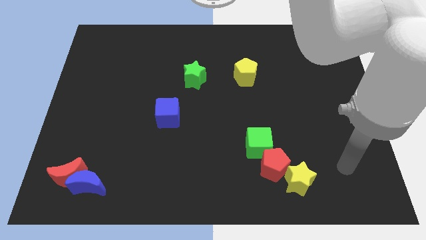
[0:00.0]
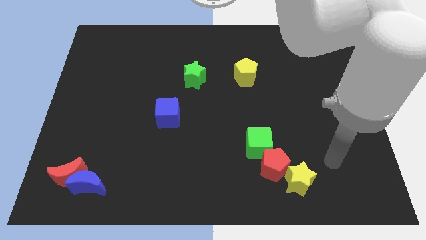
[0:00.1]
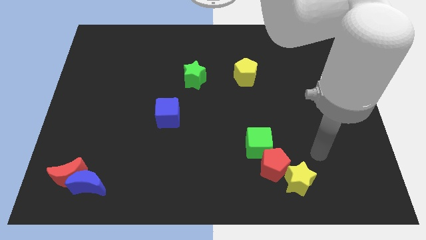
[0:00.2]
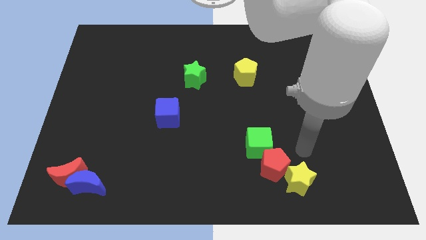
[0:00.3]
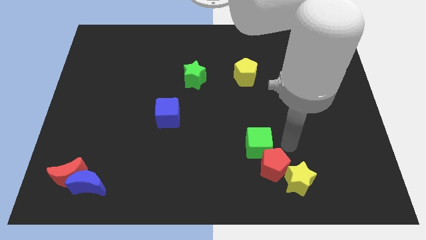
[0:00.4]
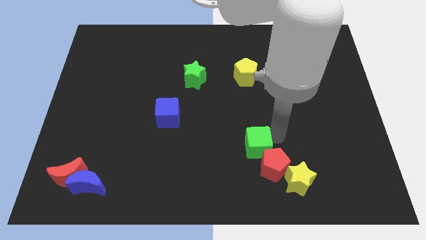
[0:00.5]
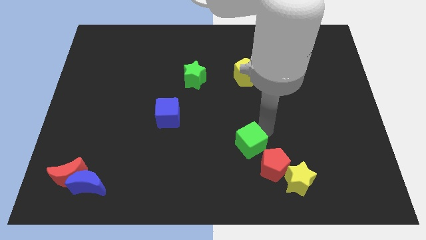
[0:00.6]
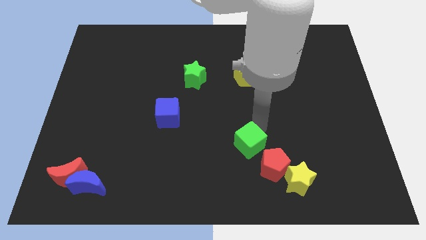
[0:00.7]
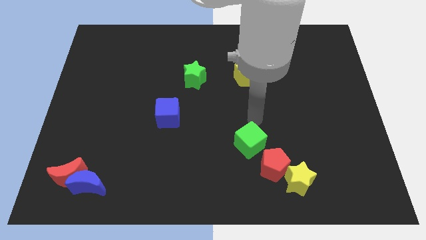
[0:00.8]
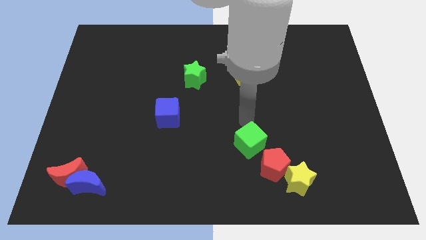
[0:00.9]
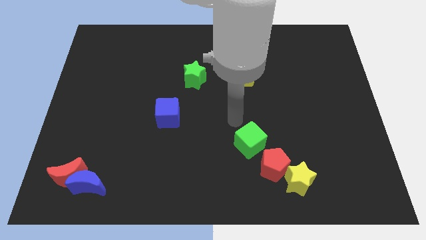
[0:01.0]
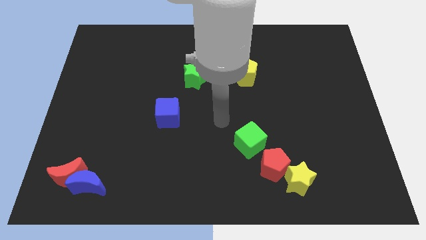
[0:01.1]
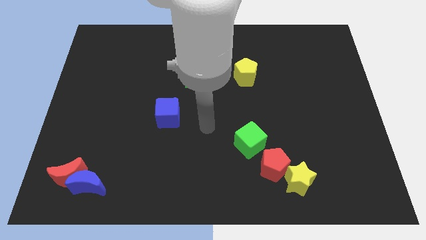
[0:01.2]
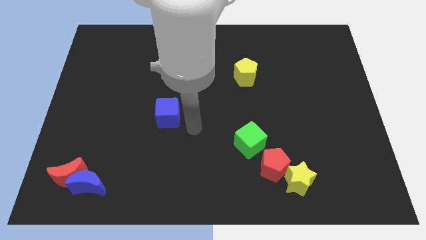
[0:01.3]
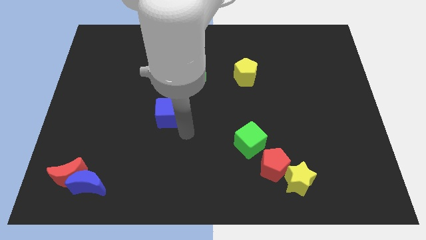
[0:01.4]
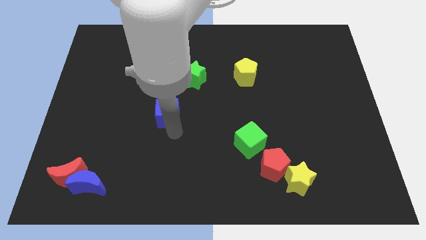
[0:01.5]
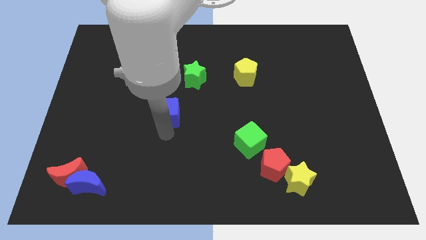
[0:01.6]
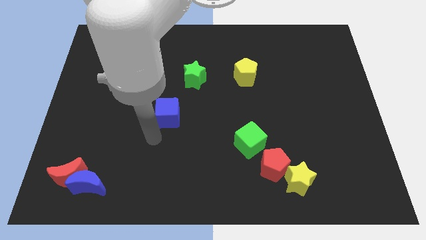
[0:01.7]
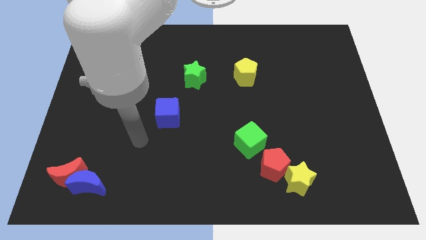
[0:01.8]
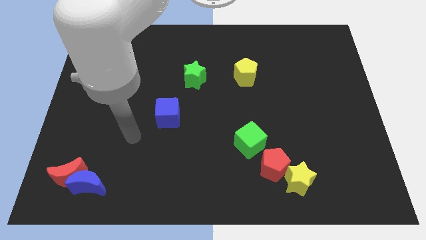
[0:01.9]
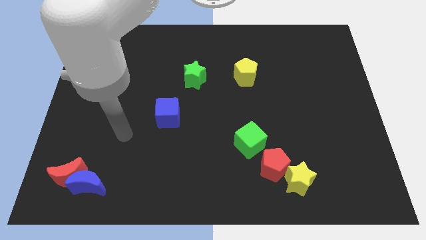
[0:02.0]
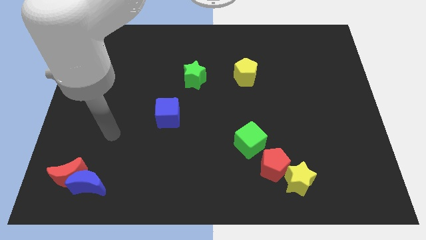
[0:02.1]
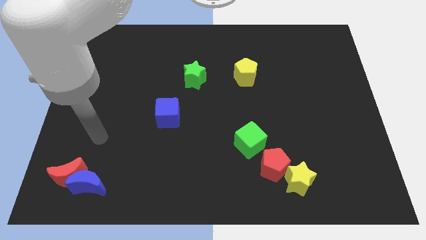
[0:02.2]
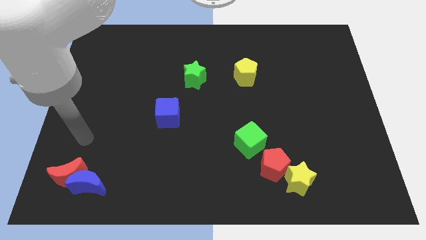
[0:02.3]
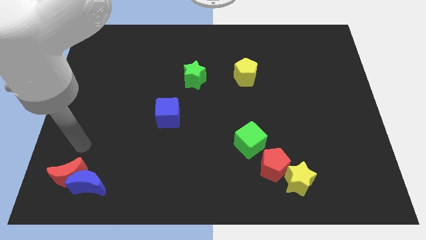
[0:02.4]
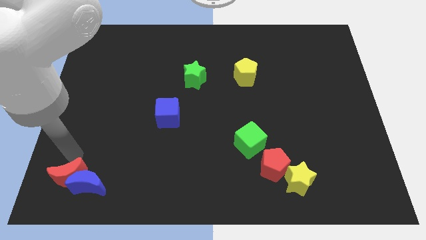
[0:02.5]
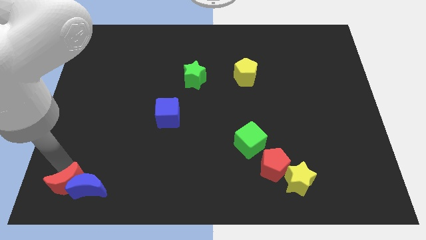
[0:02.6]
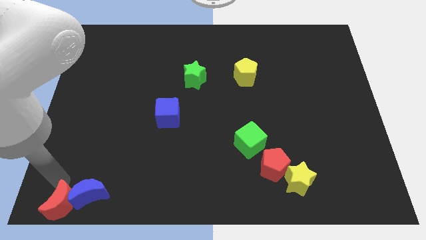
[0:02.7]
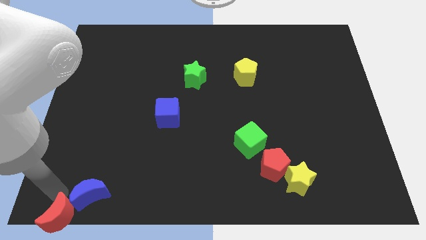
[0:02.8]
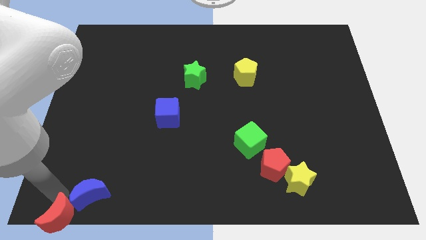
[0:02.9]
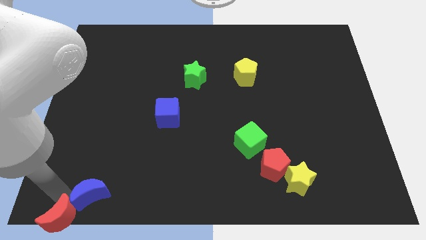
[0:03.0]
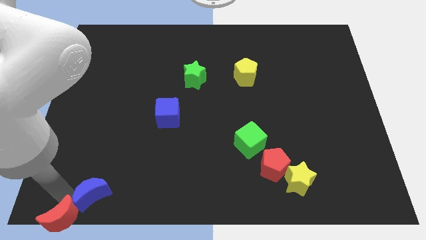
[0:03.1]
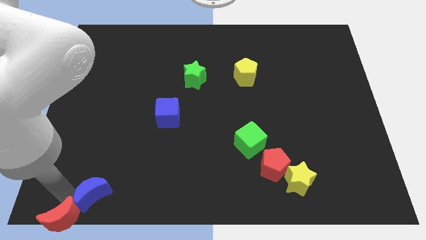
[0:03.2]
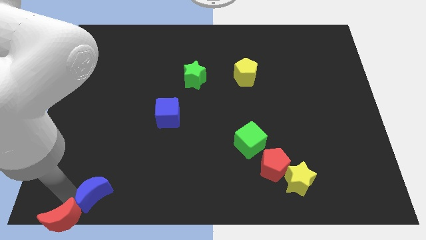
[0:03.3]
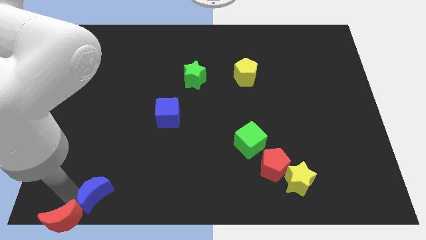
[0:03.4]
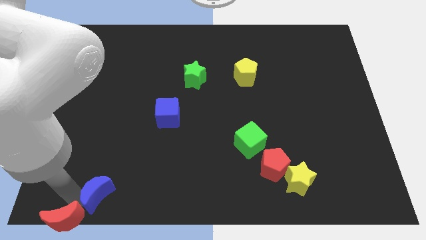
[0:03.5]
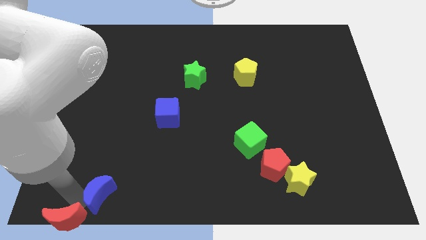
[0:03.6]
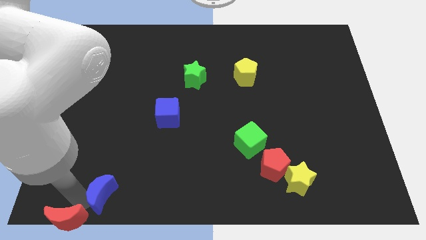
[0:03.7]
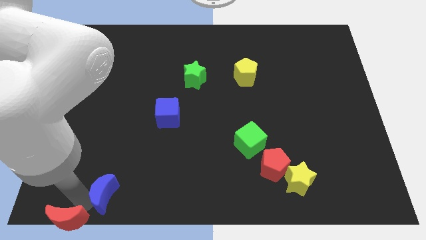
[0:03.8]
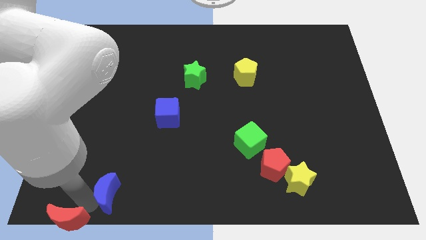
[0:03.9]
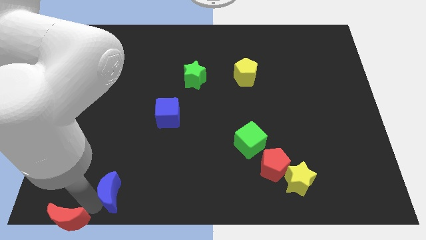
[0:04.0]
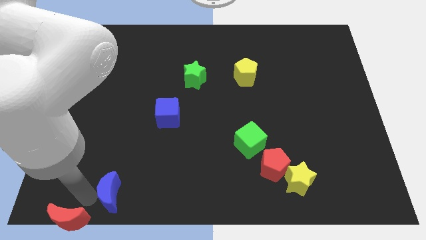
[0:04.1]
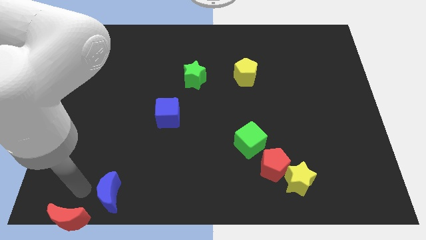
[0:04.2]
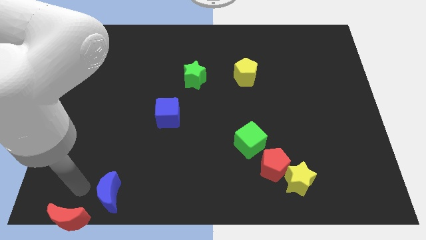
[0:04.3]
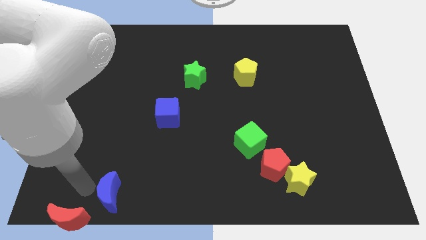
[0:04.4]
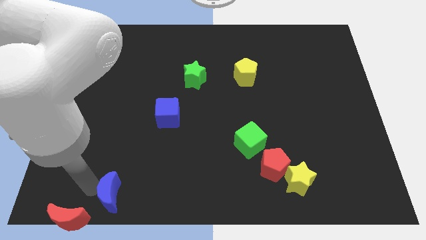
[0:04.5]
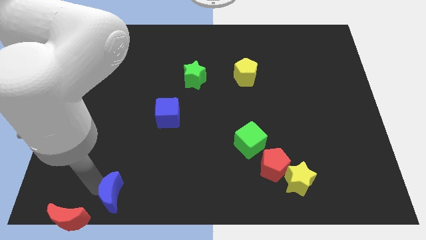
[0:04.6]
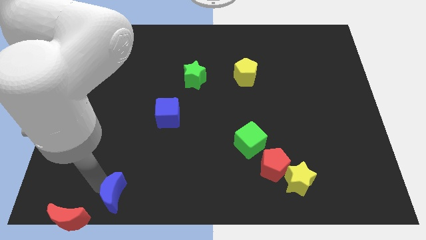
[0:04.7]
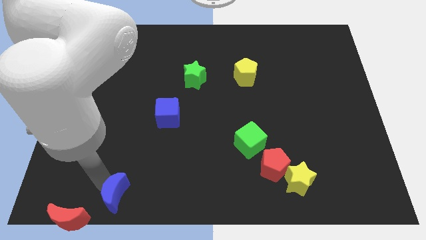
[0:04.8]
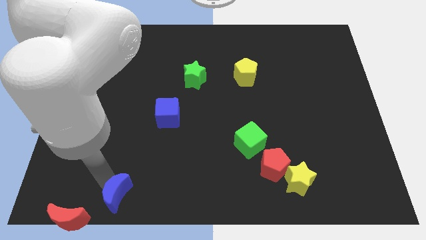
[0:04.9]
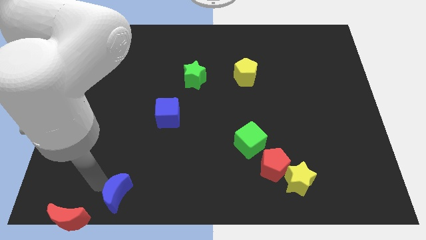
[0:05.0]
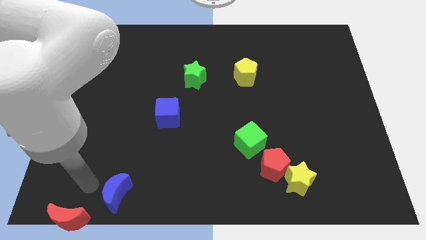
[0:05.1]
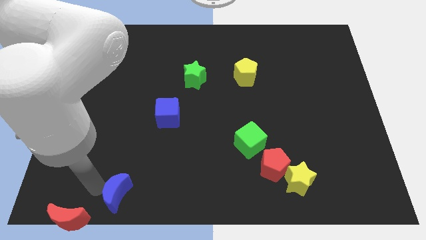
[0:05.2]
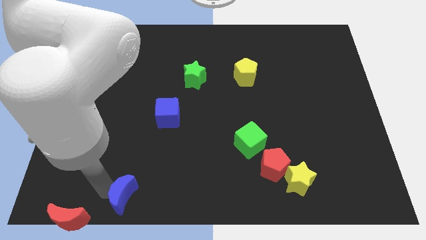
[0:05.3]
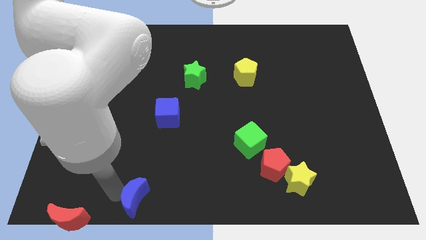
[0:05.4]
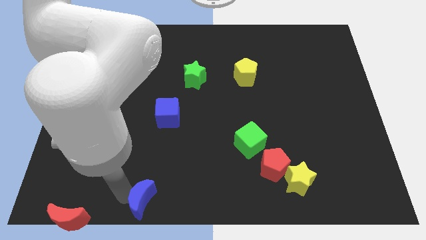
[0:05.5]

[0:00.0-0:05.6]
move the blue moon to the bottom

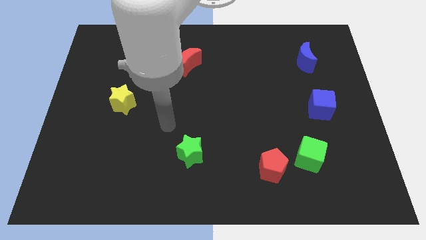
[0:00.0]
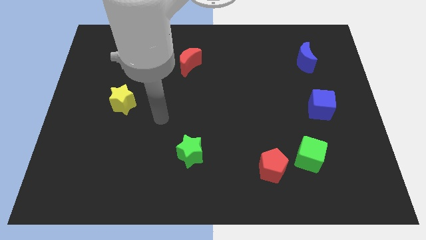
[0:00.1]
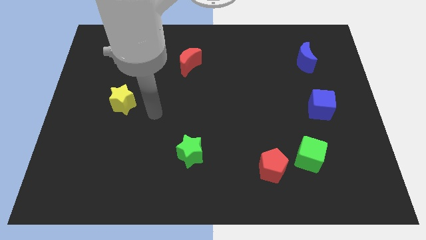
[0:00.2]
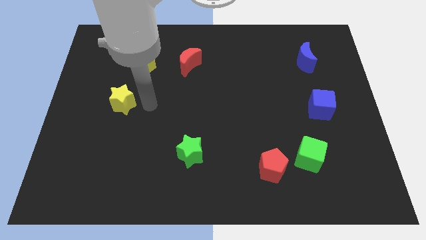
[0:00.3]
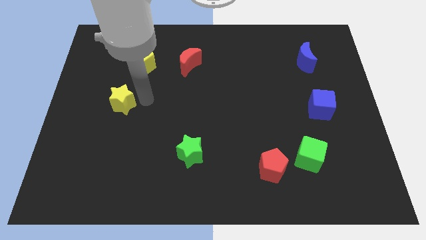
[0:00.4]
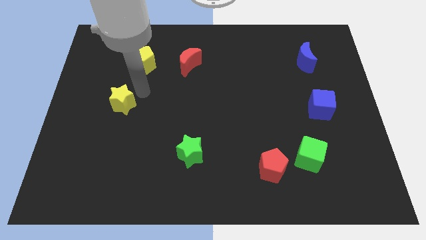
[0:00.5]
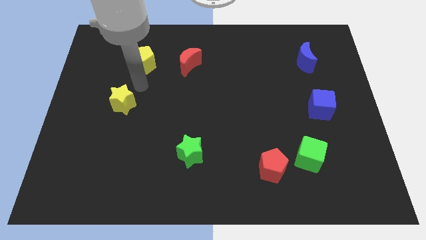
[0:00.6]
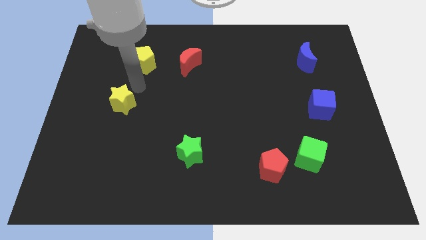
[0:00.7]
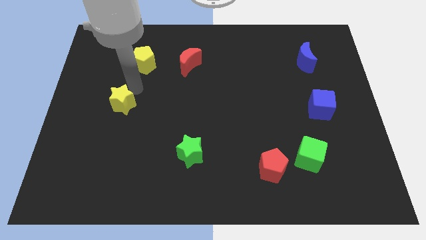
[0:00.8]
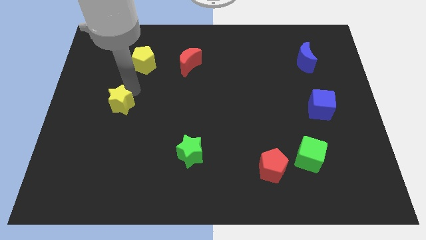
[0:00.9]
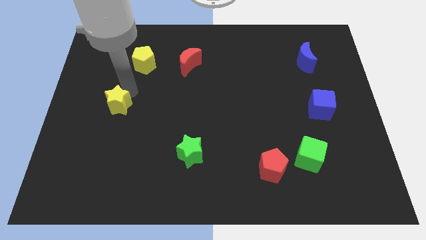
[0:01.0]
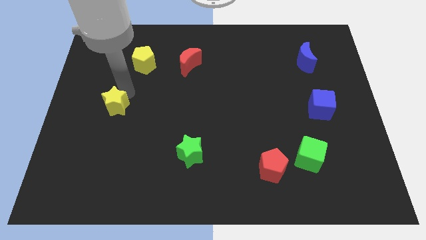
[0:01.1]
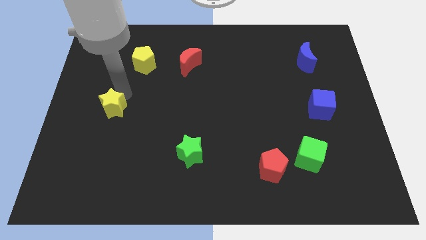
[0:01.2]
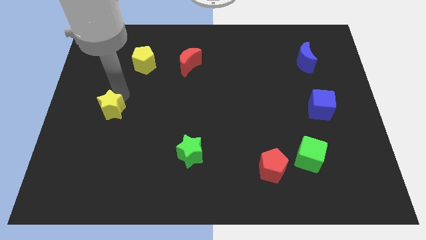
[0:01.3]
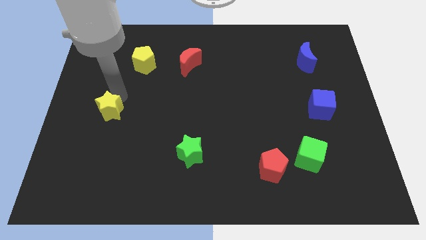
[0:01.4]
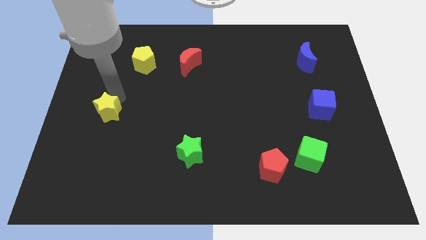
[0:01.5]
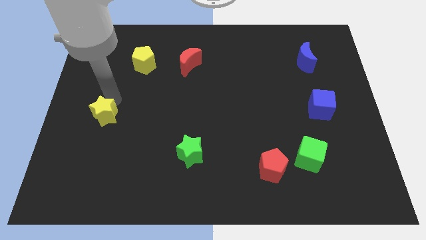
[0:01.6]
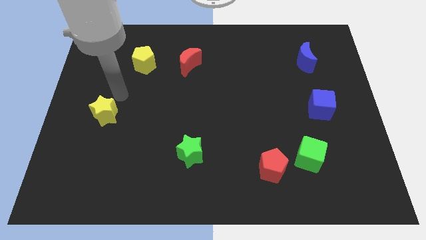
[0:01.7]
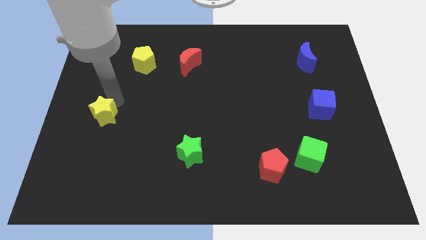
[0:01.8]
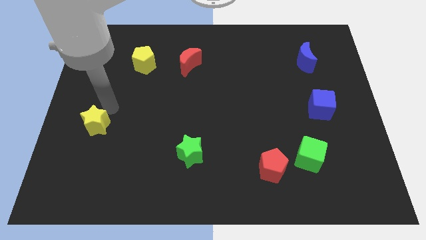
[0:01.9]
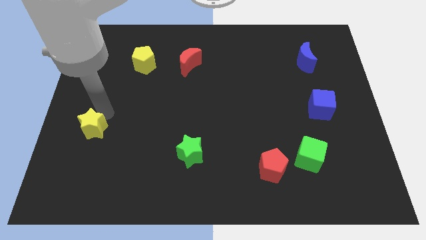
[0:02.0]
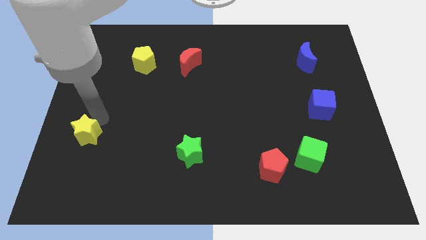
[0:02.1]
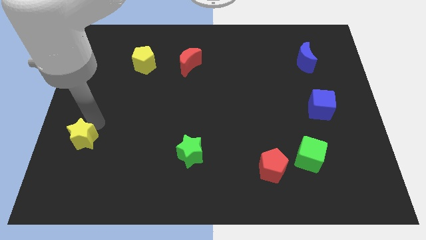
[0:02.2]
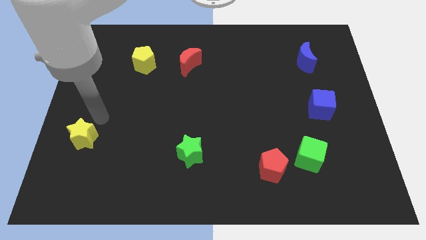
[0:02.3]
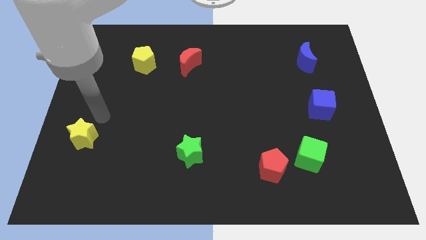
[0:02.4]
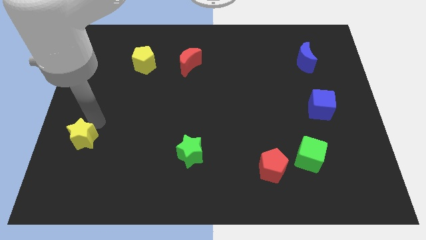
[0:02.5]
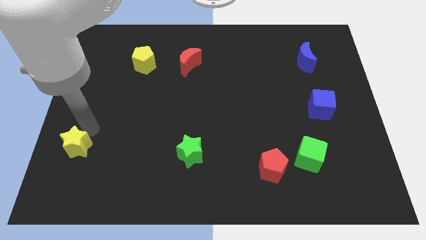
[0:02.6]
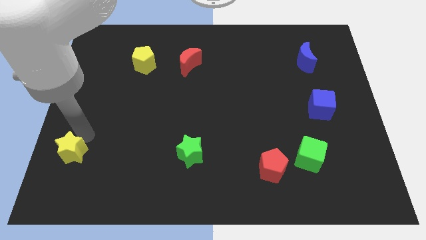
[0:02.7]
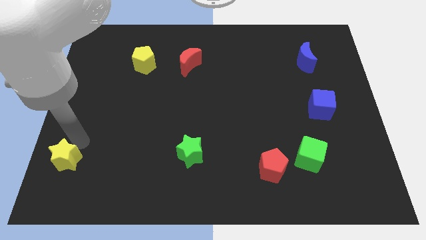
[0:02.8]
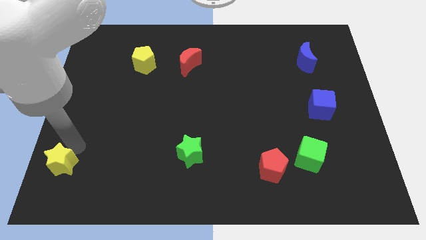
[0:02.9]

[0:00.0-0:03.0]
push the yellow star to the bottom left corner
